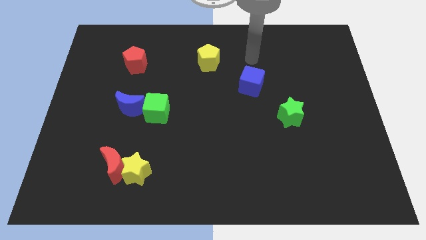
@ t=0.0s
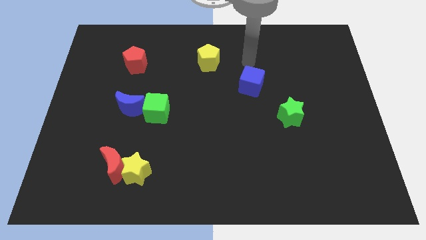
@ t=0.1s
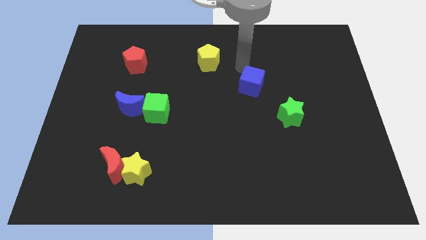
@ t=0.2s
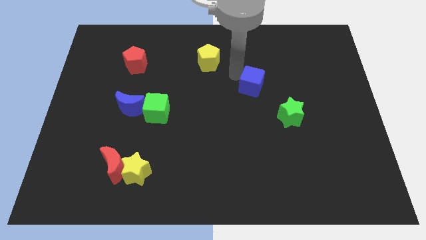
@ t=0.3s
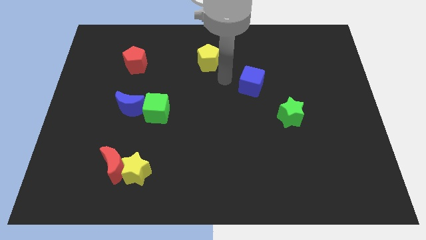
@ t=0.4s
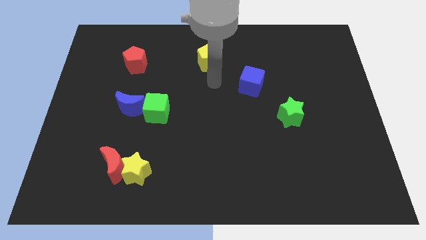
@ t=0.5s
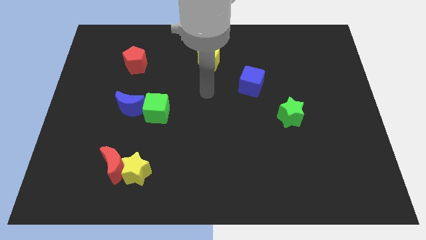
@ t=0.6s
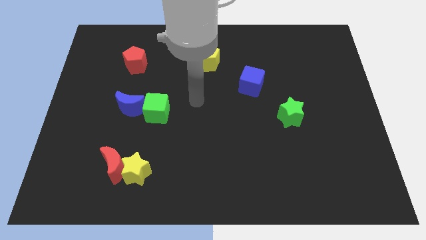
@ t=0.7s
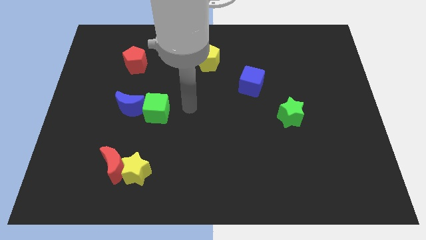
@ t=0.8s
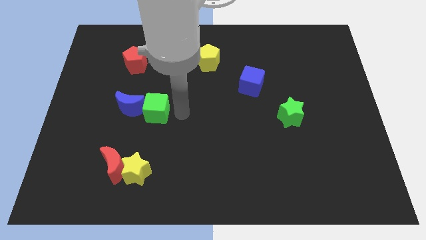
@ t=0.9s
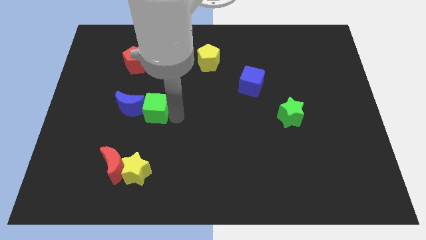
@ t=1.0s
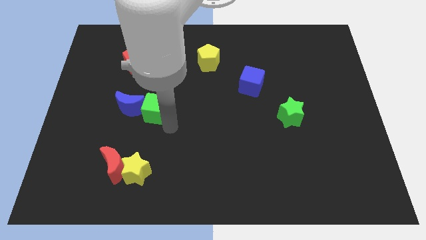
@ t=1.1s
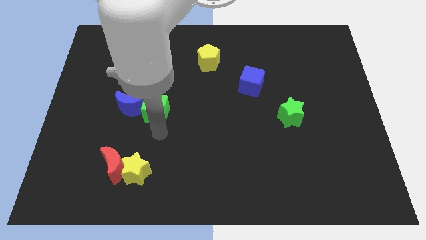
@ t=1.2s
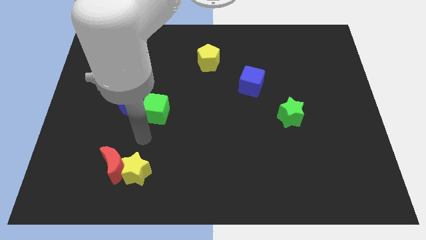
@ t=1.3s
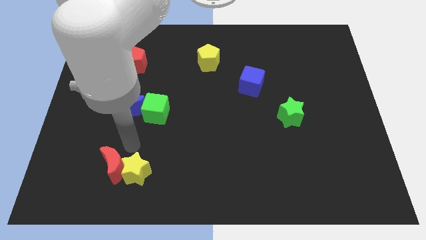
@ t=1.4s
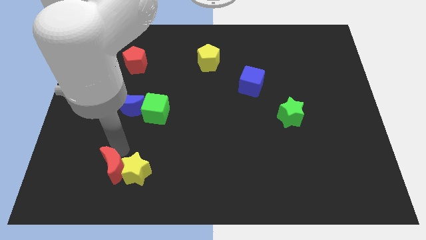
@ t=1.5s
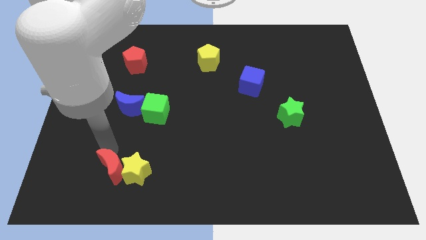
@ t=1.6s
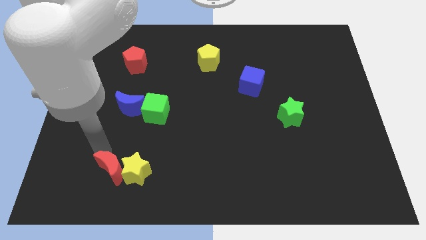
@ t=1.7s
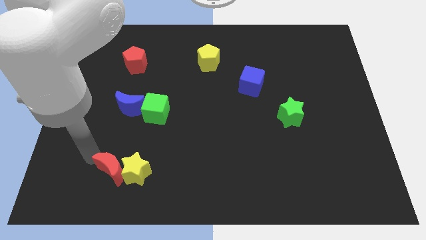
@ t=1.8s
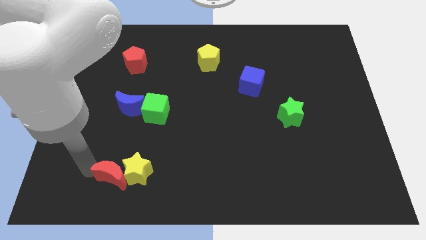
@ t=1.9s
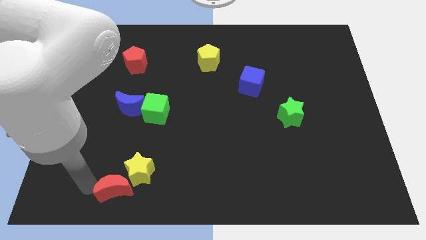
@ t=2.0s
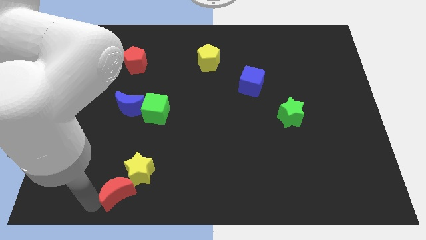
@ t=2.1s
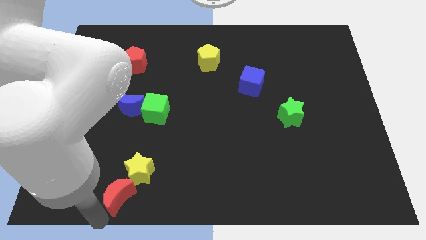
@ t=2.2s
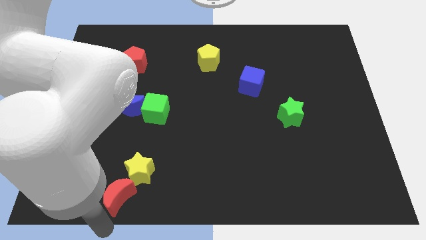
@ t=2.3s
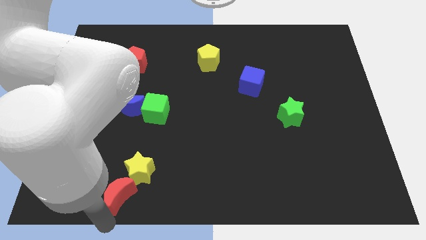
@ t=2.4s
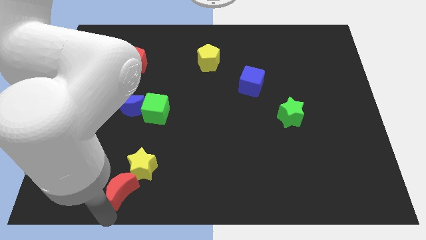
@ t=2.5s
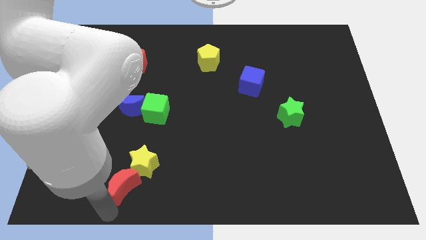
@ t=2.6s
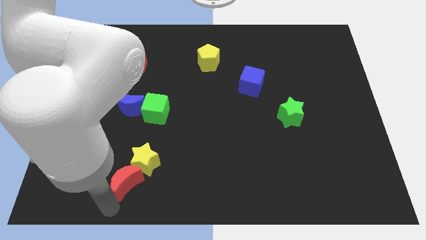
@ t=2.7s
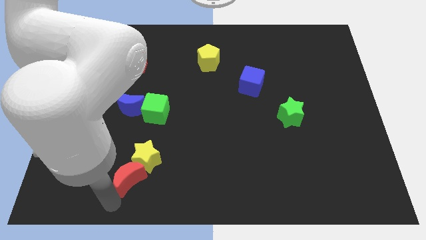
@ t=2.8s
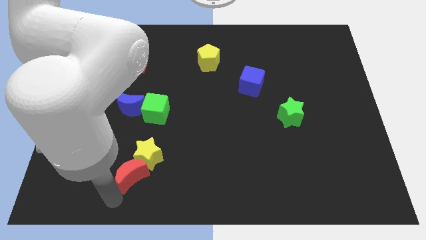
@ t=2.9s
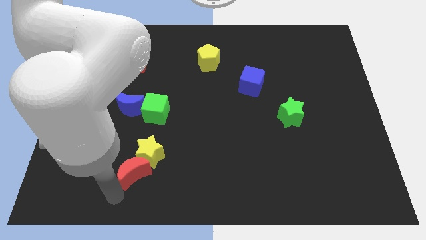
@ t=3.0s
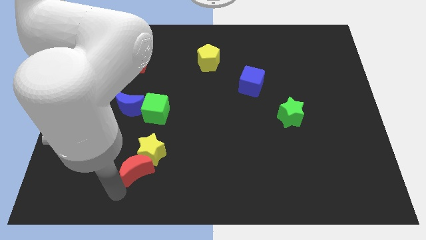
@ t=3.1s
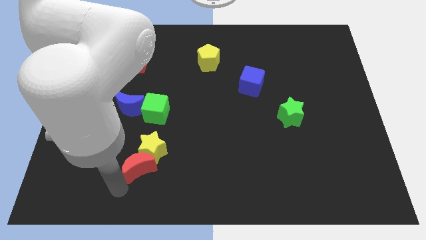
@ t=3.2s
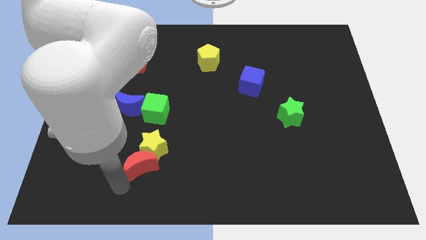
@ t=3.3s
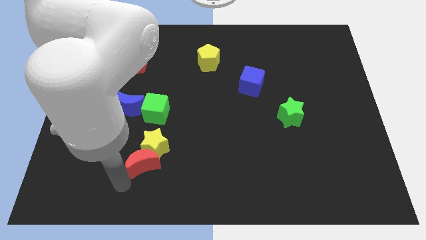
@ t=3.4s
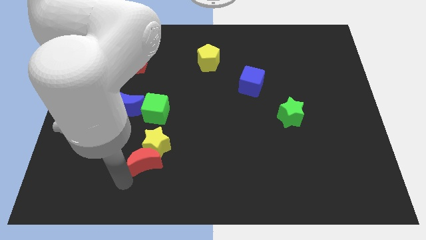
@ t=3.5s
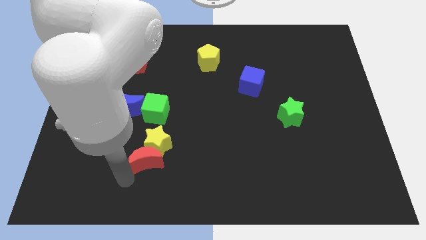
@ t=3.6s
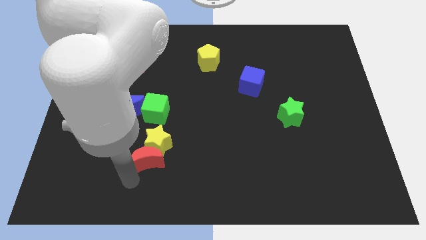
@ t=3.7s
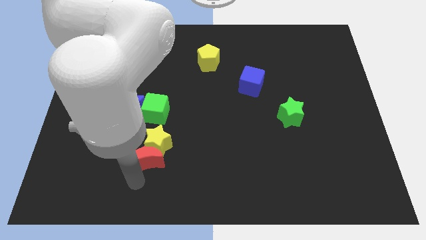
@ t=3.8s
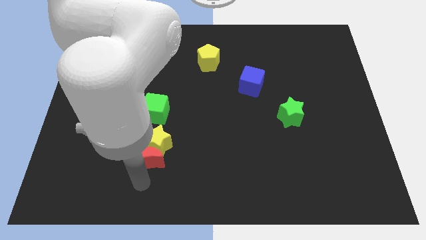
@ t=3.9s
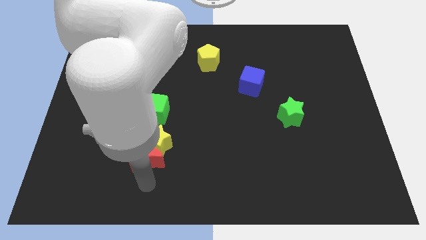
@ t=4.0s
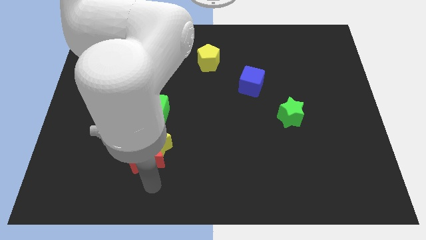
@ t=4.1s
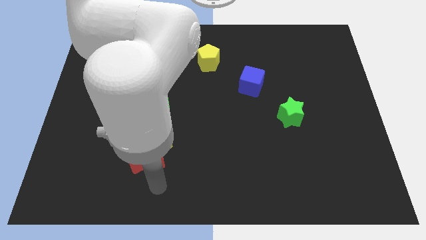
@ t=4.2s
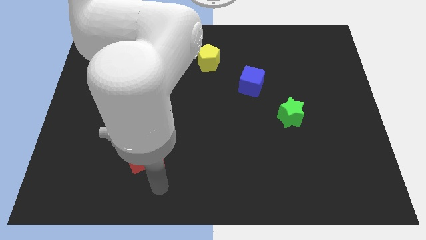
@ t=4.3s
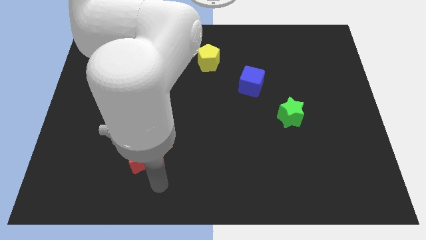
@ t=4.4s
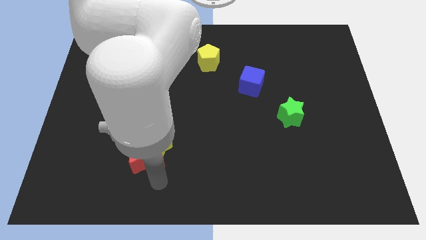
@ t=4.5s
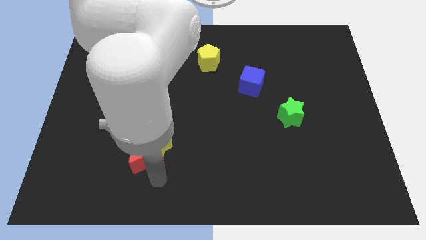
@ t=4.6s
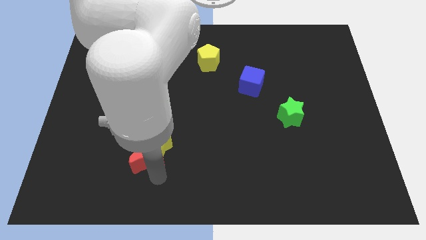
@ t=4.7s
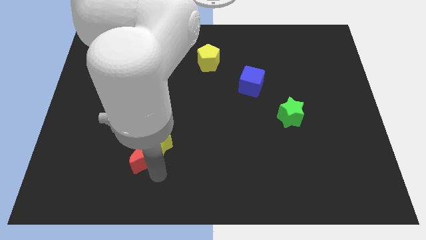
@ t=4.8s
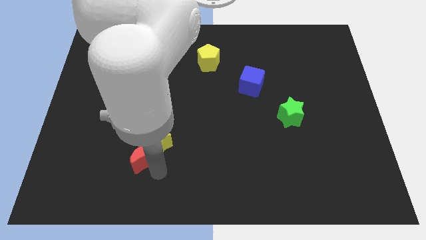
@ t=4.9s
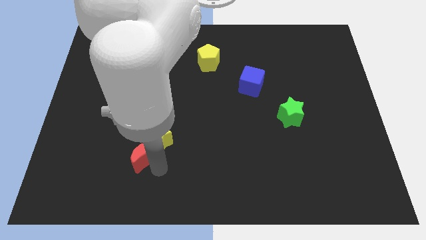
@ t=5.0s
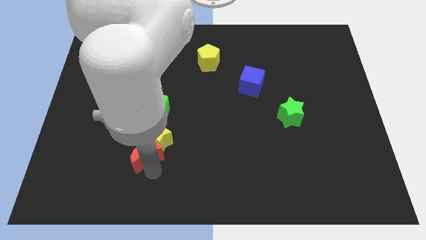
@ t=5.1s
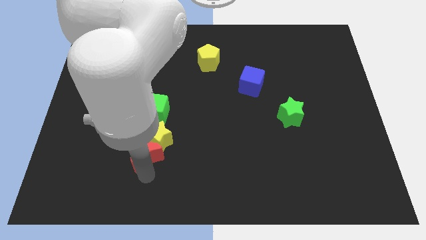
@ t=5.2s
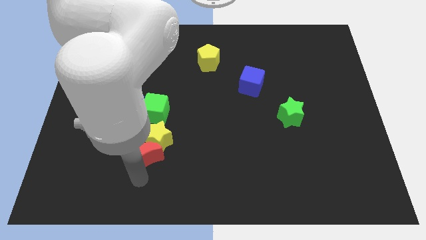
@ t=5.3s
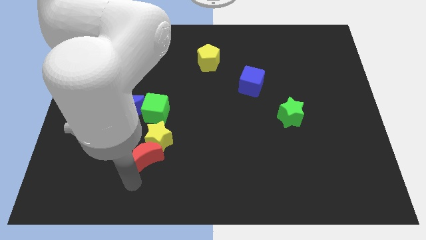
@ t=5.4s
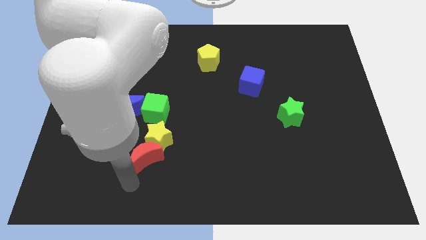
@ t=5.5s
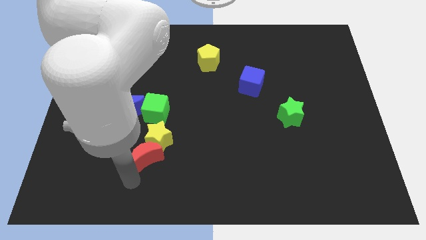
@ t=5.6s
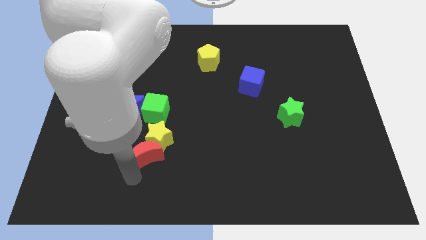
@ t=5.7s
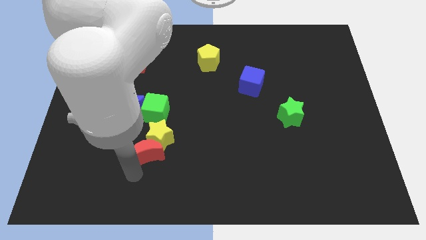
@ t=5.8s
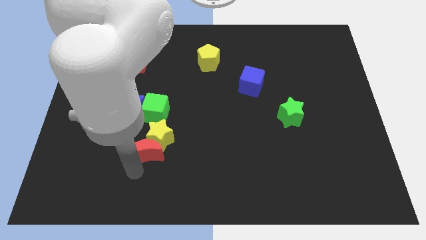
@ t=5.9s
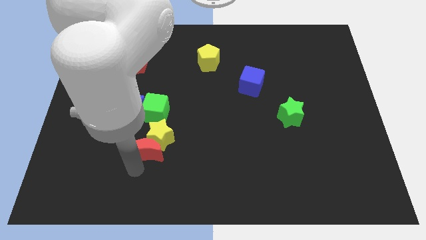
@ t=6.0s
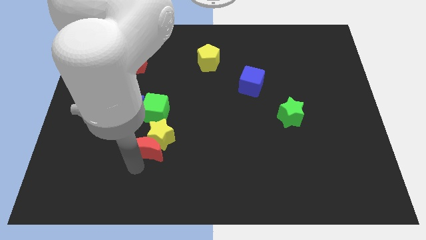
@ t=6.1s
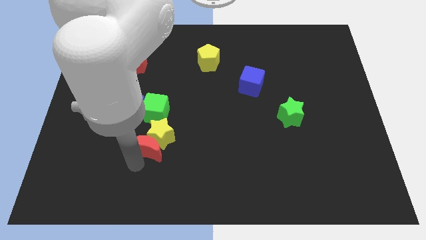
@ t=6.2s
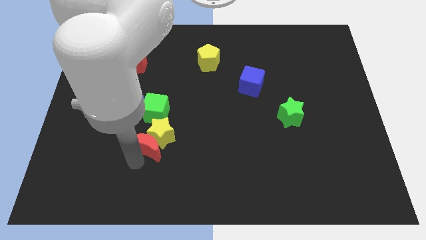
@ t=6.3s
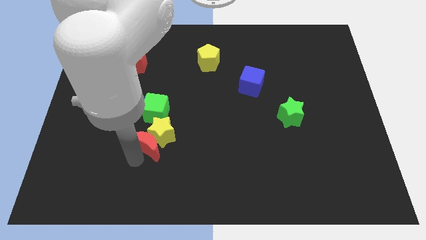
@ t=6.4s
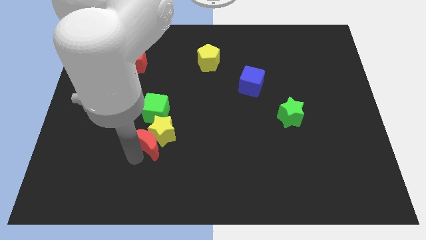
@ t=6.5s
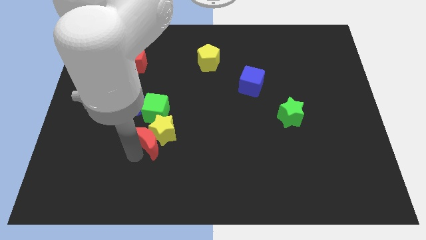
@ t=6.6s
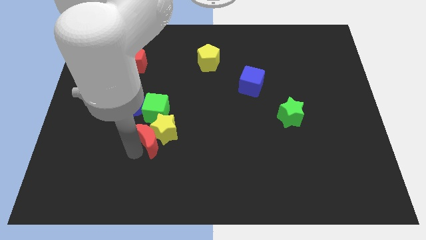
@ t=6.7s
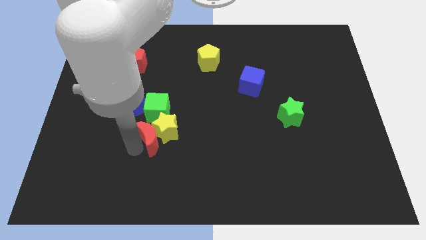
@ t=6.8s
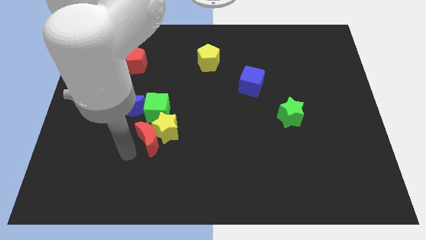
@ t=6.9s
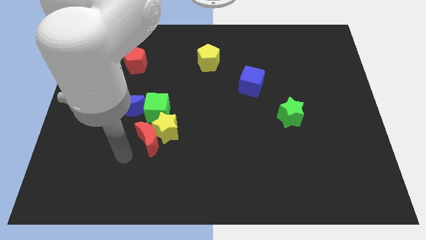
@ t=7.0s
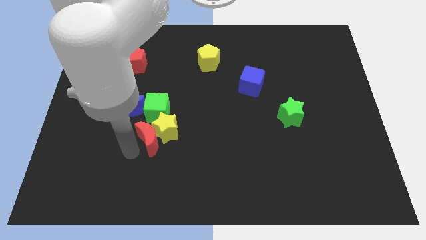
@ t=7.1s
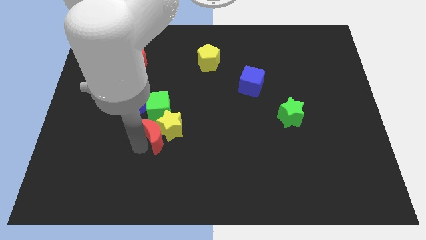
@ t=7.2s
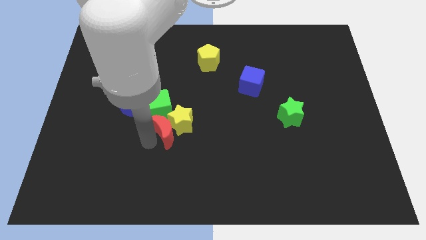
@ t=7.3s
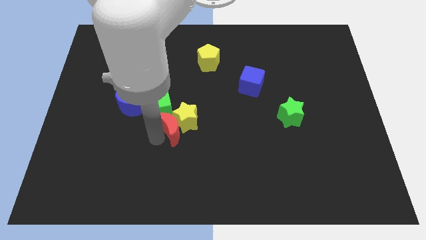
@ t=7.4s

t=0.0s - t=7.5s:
move the red moon to the middle
